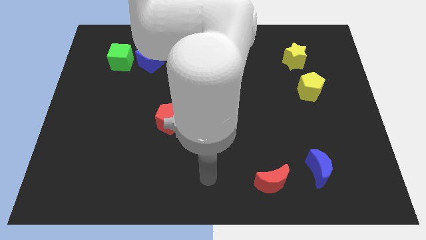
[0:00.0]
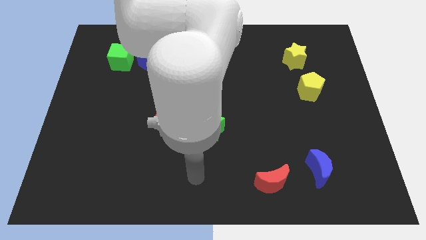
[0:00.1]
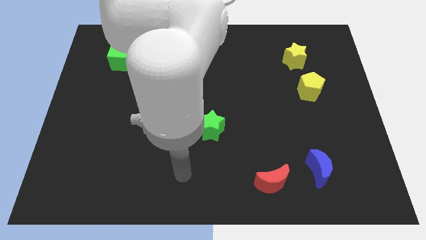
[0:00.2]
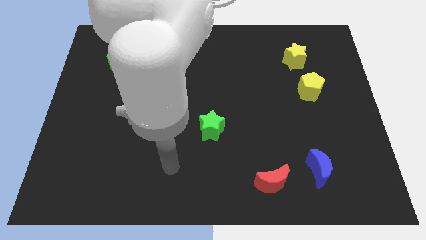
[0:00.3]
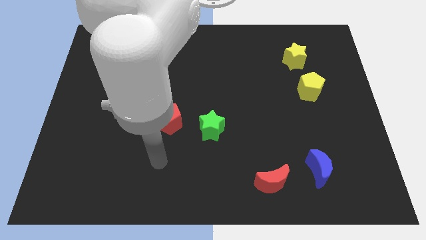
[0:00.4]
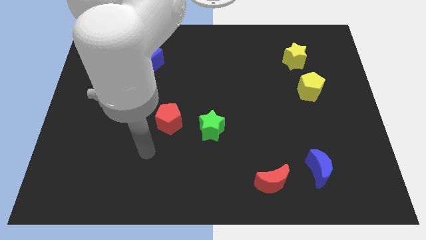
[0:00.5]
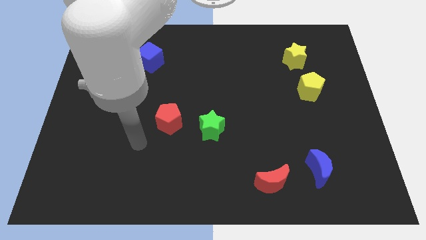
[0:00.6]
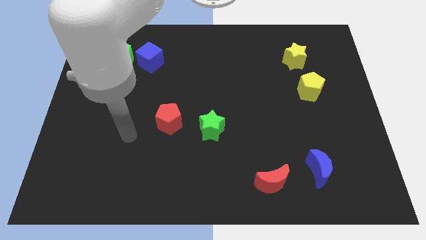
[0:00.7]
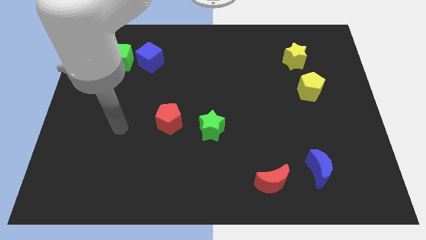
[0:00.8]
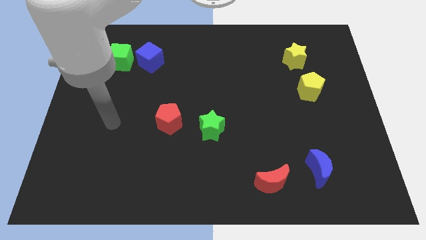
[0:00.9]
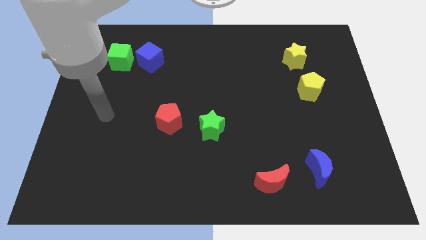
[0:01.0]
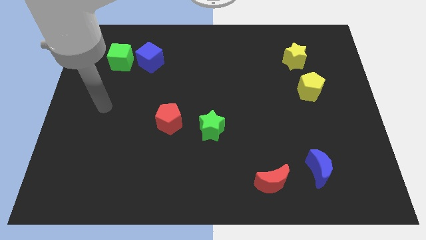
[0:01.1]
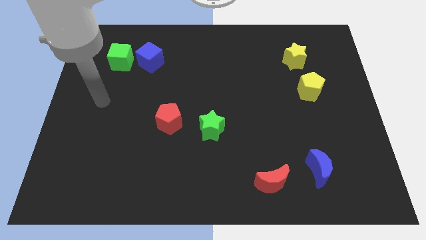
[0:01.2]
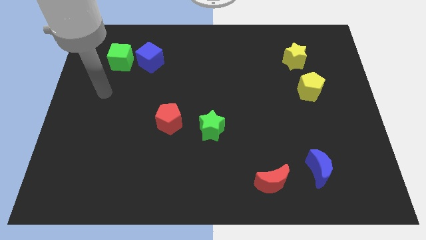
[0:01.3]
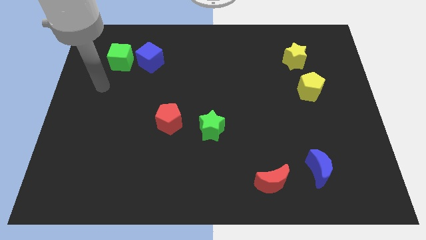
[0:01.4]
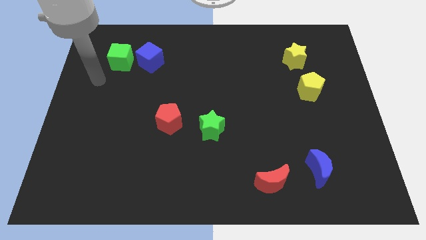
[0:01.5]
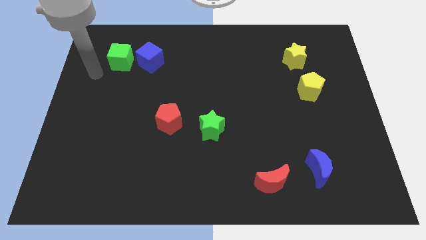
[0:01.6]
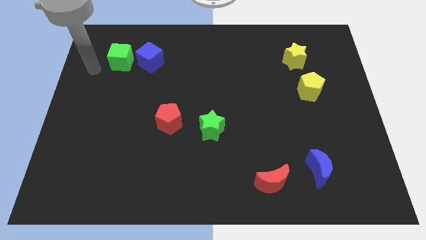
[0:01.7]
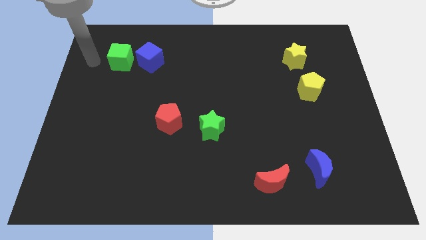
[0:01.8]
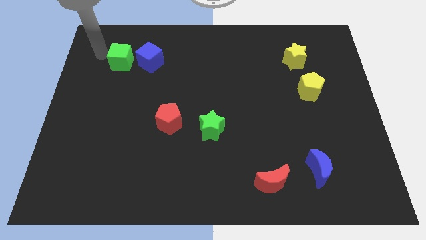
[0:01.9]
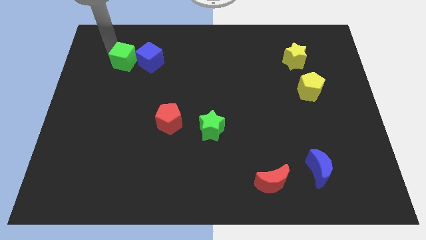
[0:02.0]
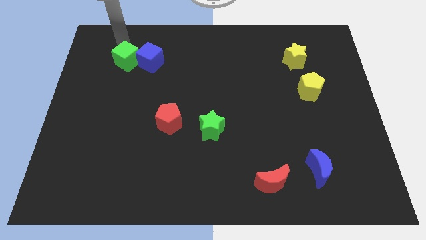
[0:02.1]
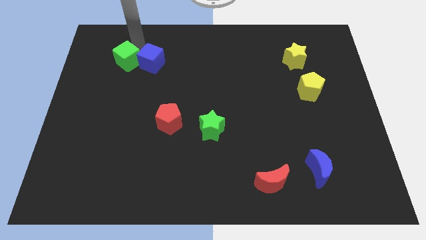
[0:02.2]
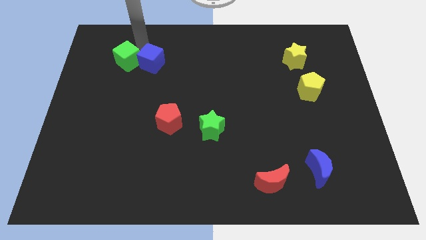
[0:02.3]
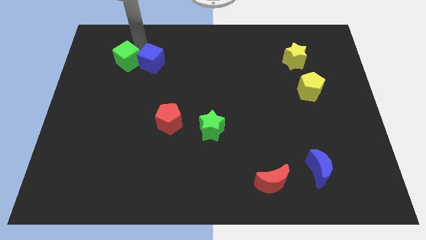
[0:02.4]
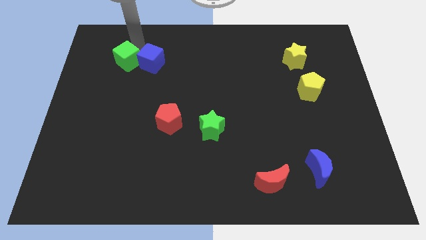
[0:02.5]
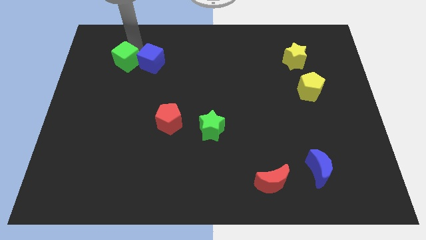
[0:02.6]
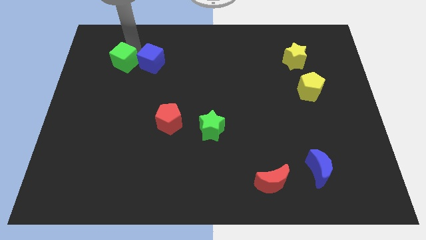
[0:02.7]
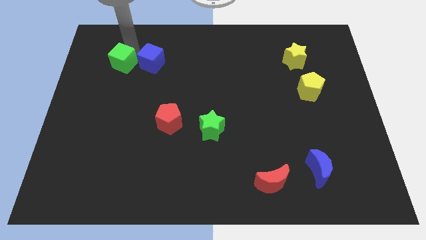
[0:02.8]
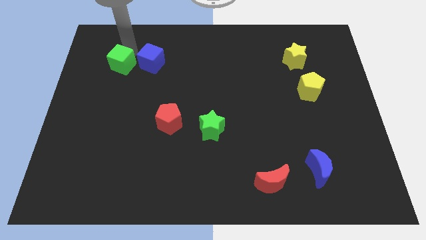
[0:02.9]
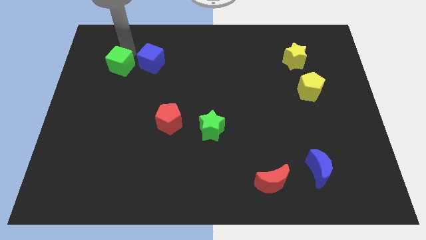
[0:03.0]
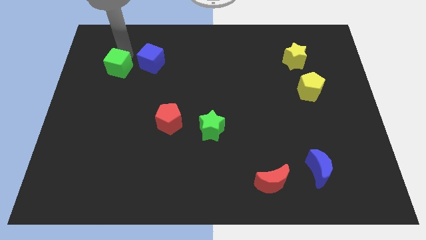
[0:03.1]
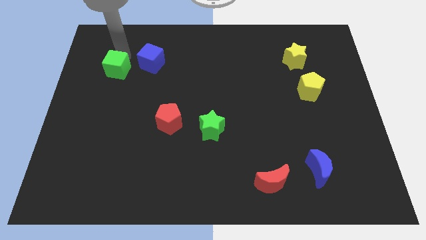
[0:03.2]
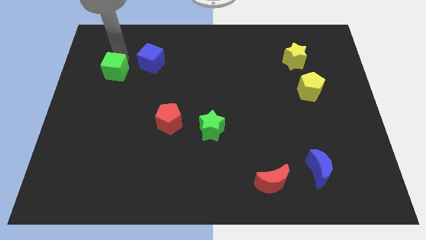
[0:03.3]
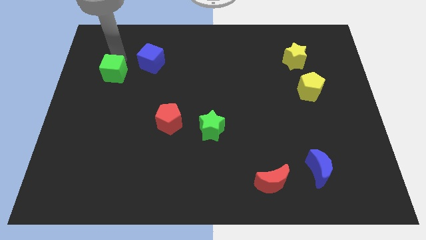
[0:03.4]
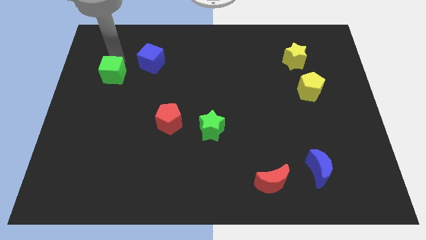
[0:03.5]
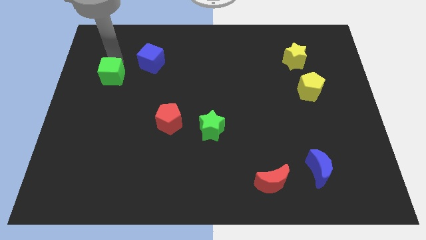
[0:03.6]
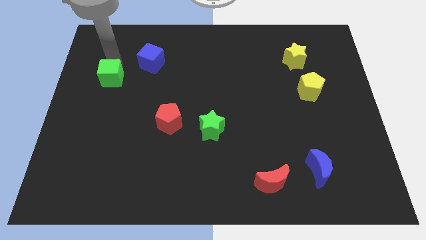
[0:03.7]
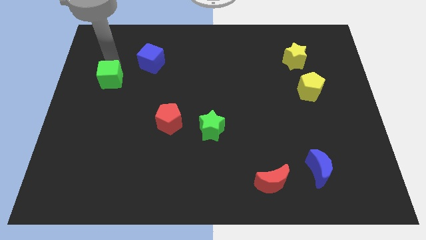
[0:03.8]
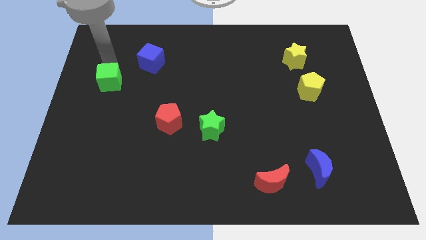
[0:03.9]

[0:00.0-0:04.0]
slide the green cube downwards a little

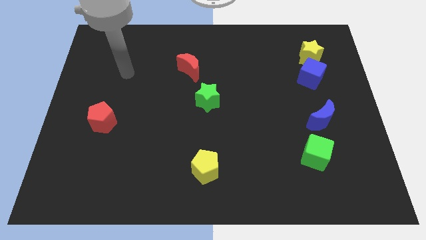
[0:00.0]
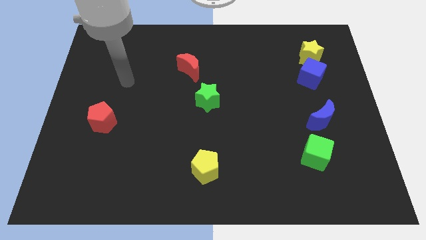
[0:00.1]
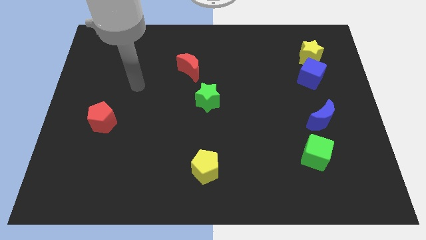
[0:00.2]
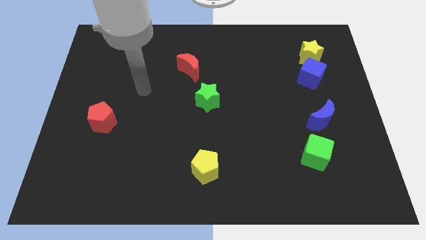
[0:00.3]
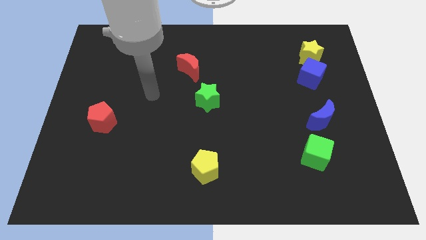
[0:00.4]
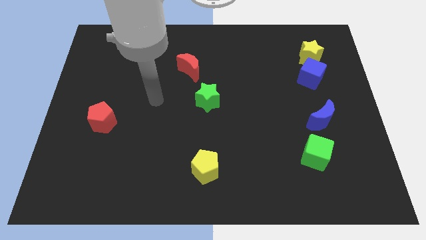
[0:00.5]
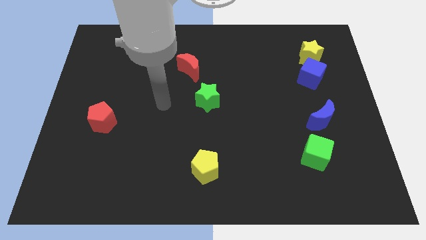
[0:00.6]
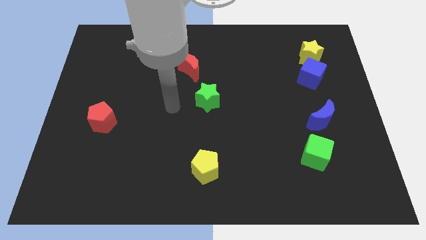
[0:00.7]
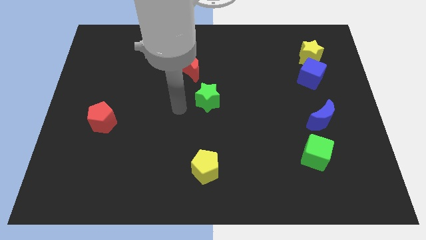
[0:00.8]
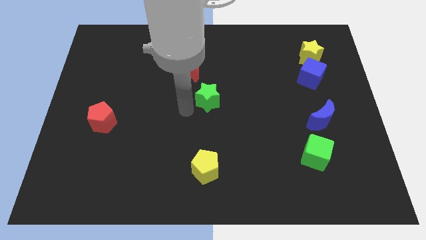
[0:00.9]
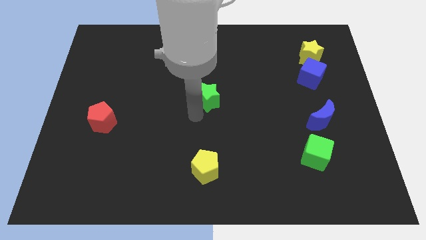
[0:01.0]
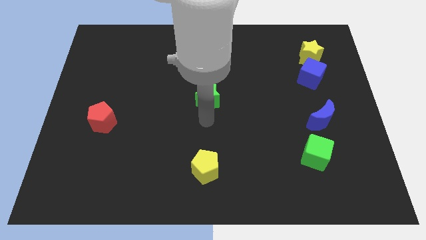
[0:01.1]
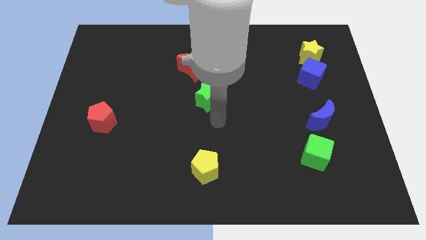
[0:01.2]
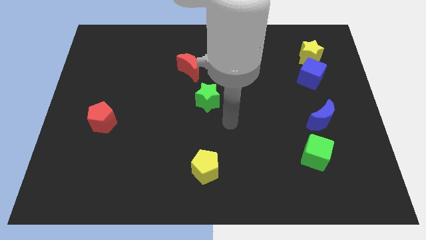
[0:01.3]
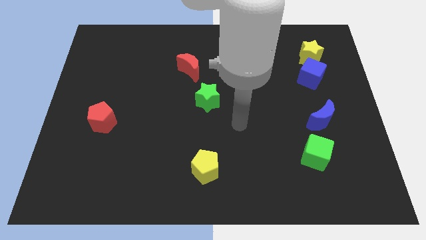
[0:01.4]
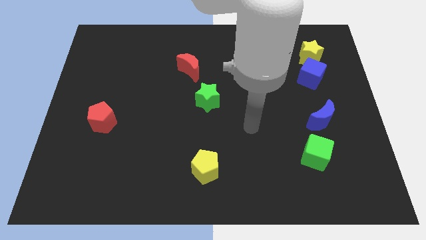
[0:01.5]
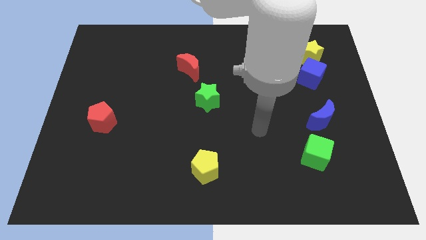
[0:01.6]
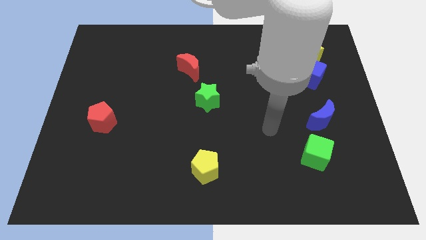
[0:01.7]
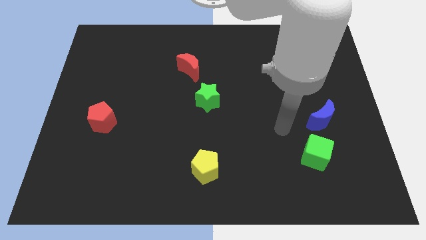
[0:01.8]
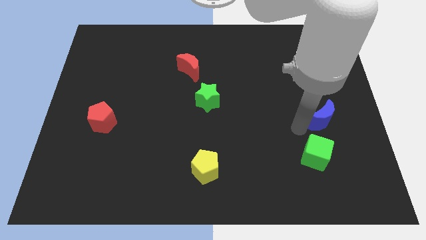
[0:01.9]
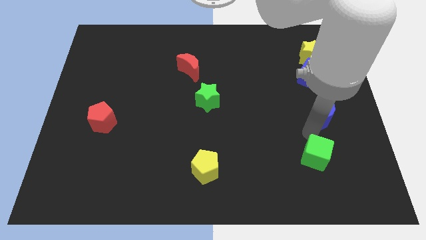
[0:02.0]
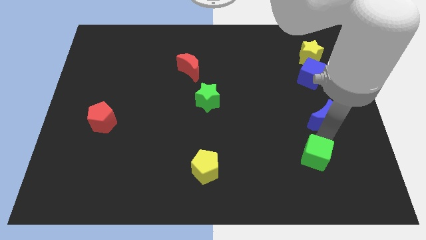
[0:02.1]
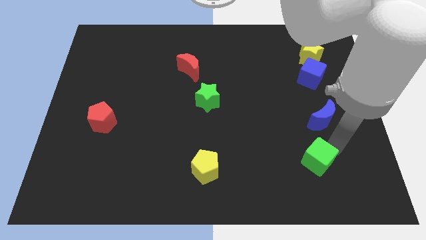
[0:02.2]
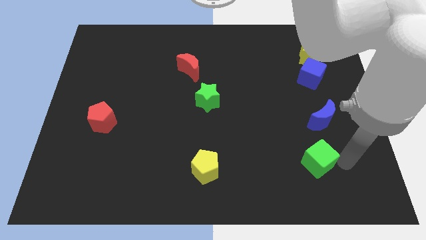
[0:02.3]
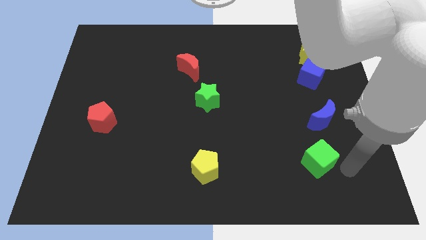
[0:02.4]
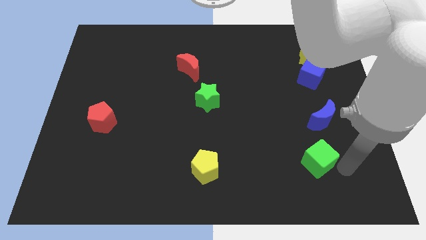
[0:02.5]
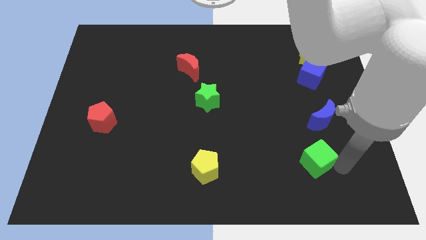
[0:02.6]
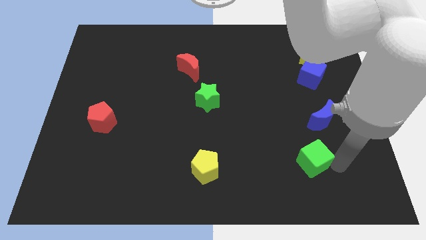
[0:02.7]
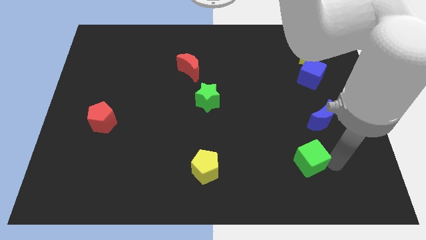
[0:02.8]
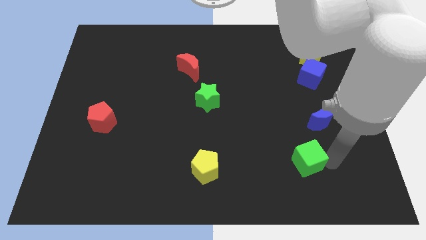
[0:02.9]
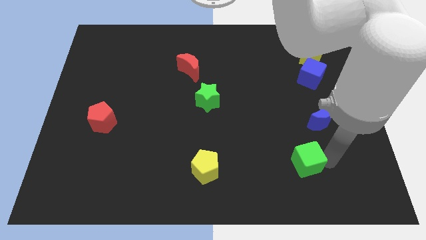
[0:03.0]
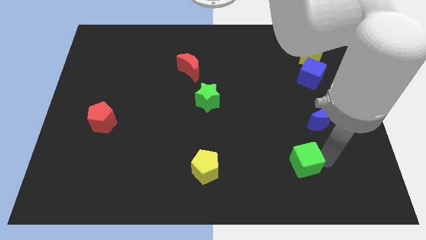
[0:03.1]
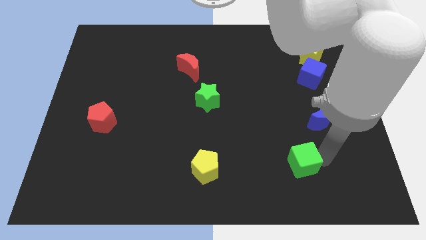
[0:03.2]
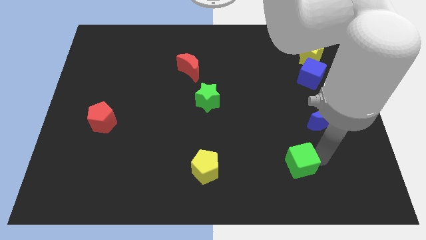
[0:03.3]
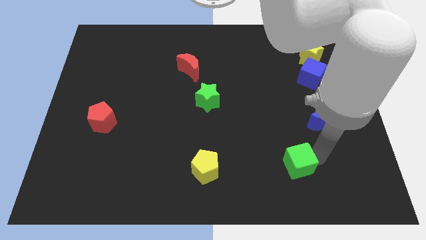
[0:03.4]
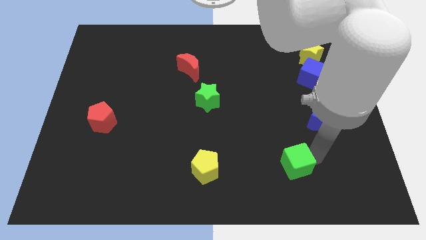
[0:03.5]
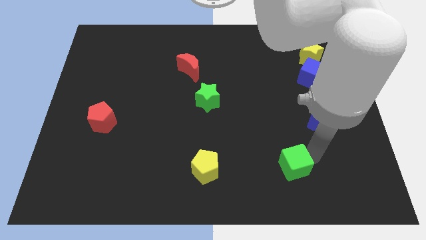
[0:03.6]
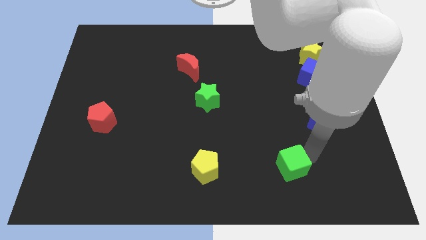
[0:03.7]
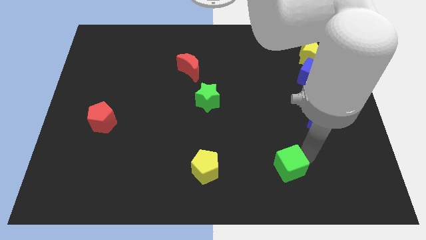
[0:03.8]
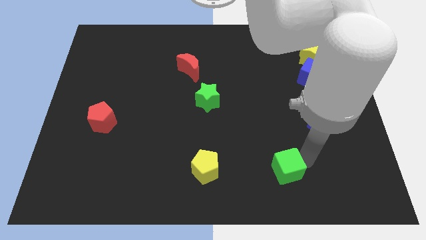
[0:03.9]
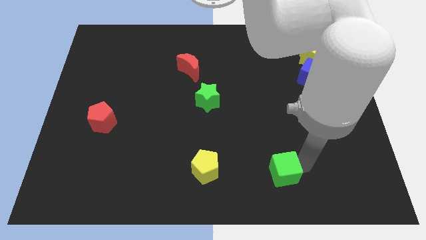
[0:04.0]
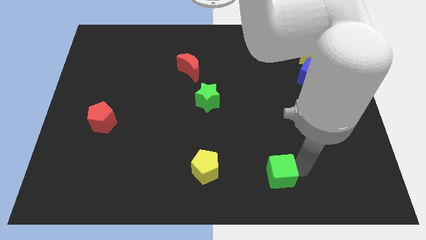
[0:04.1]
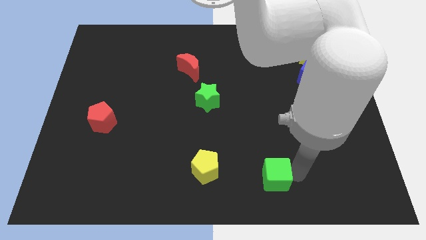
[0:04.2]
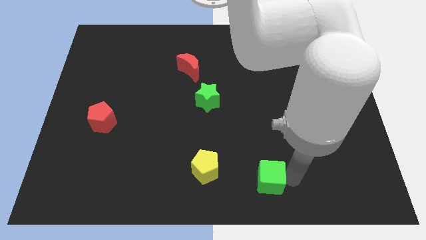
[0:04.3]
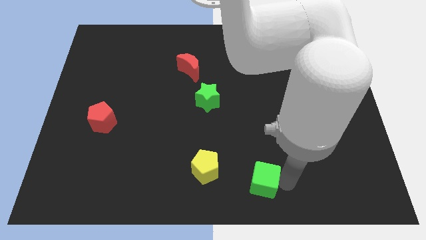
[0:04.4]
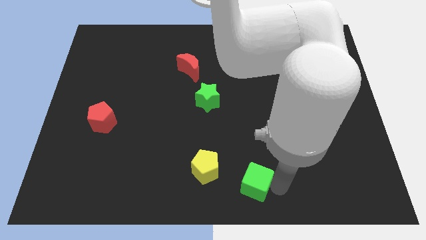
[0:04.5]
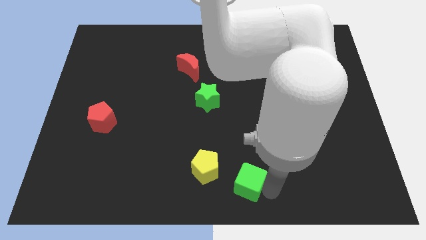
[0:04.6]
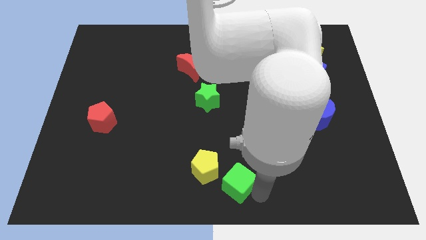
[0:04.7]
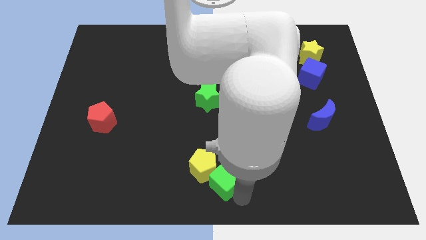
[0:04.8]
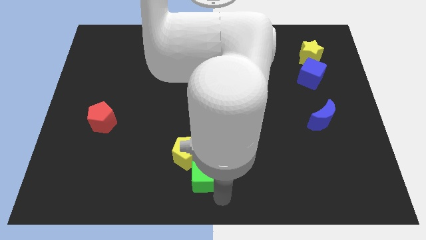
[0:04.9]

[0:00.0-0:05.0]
move the green cube left
